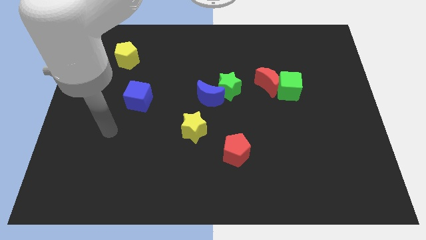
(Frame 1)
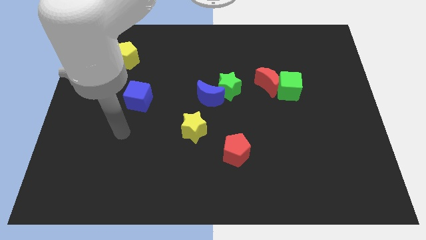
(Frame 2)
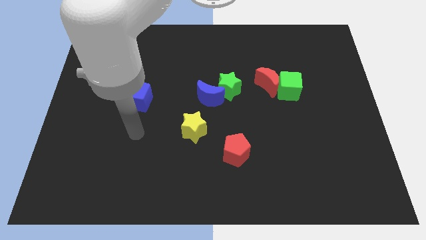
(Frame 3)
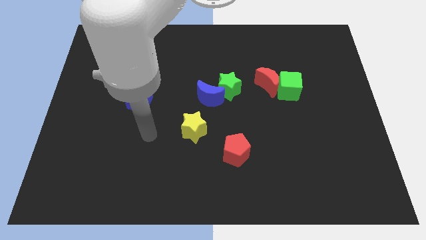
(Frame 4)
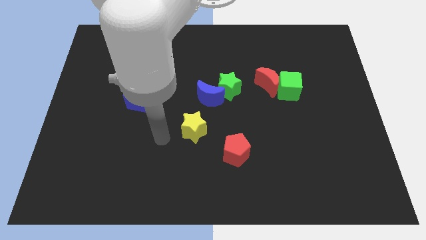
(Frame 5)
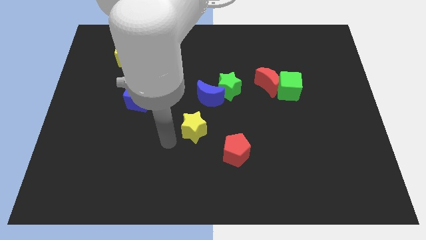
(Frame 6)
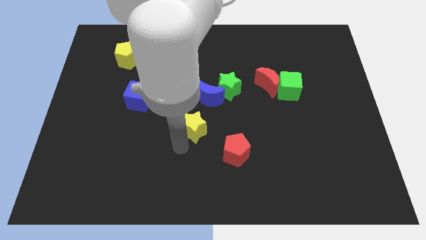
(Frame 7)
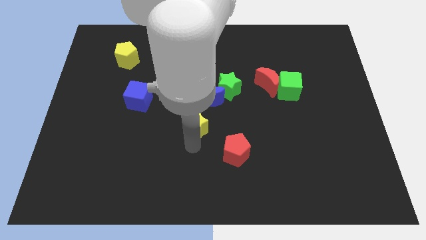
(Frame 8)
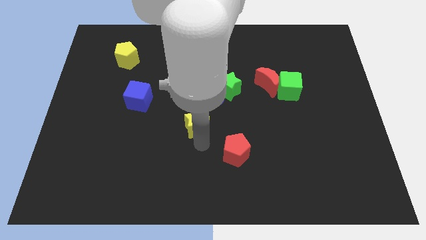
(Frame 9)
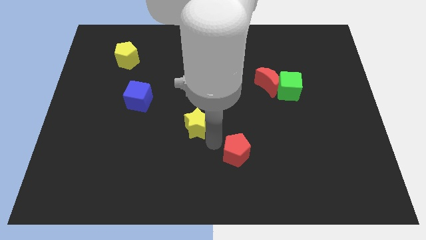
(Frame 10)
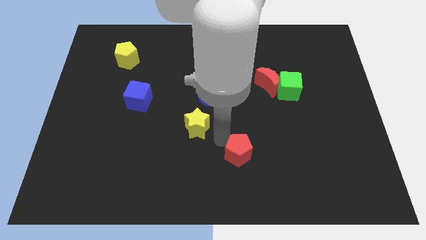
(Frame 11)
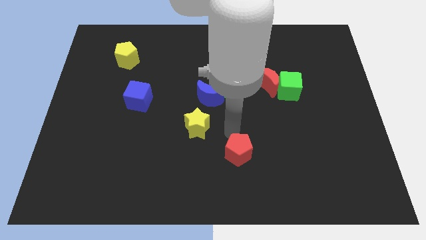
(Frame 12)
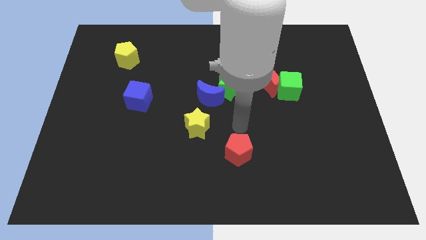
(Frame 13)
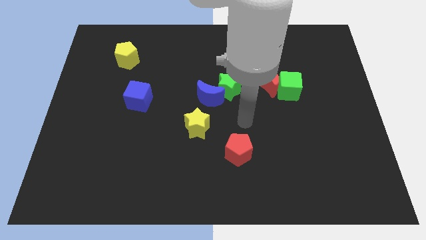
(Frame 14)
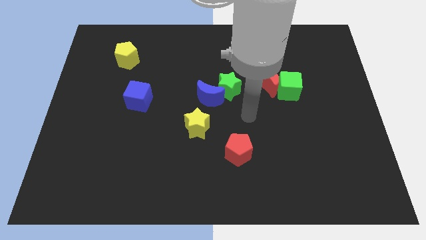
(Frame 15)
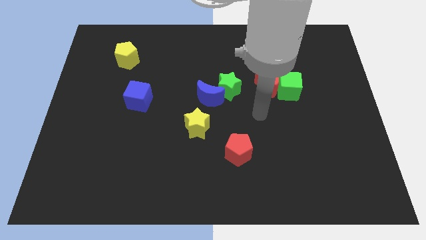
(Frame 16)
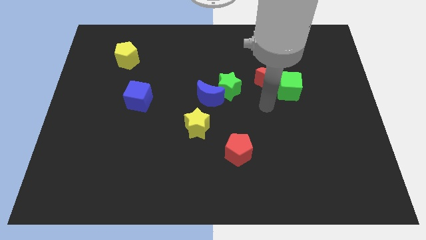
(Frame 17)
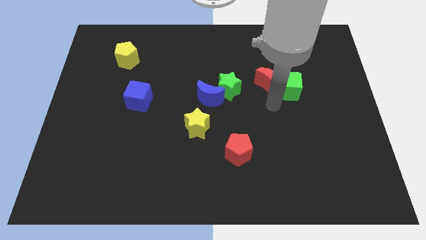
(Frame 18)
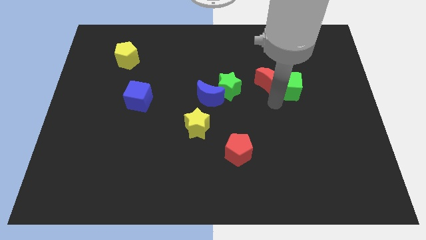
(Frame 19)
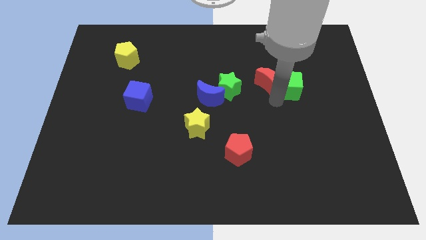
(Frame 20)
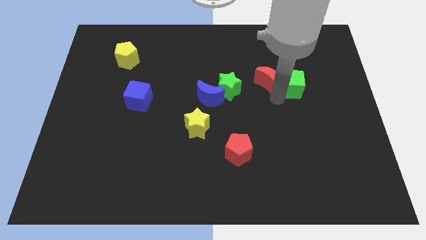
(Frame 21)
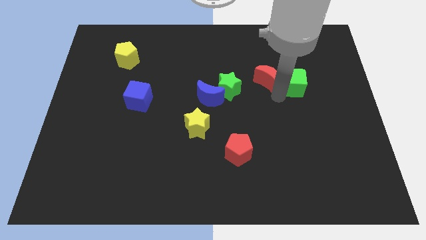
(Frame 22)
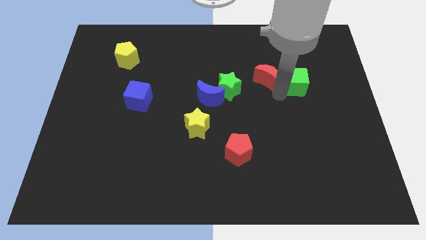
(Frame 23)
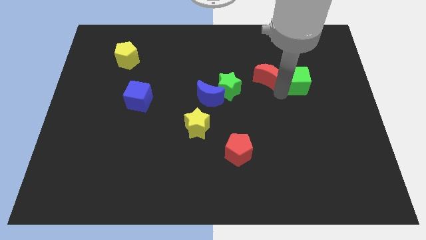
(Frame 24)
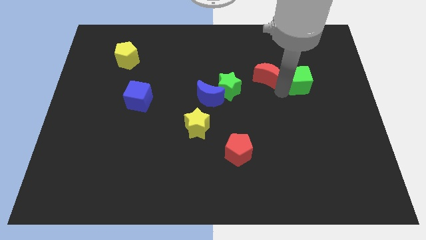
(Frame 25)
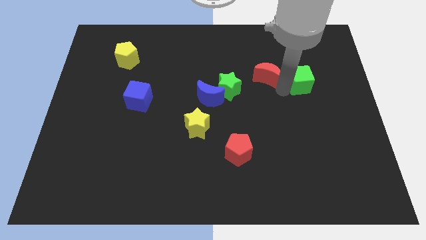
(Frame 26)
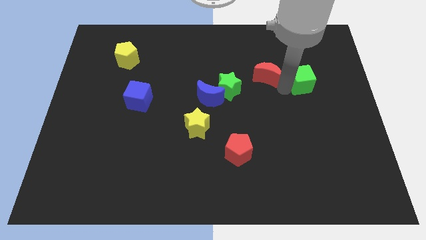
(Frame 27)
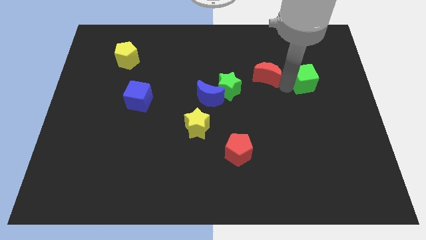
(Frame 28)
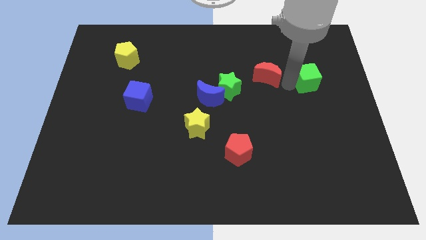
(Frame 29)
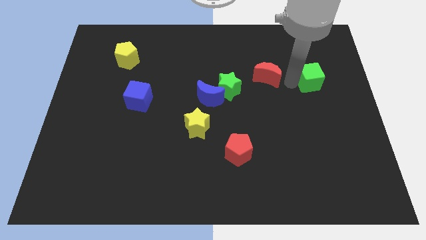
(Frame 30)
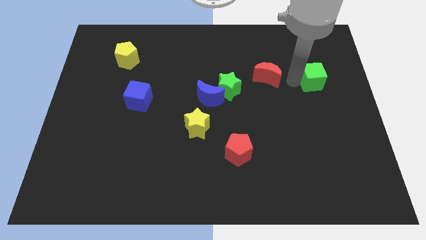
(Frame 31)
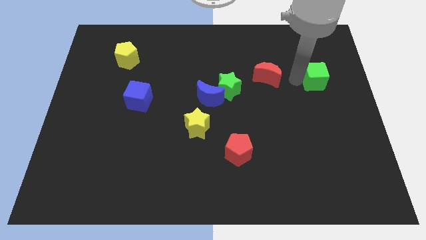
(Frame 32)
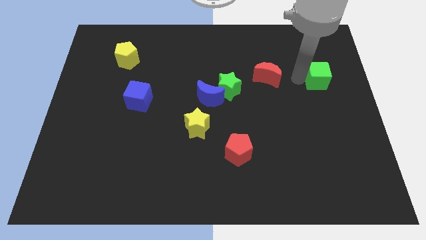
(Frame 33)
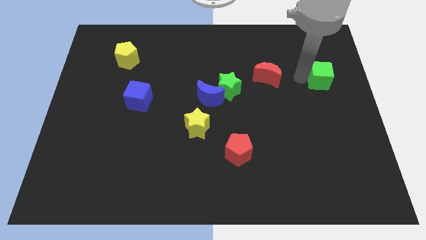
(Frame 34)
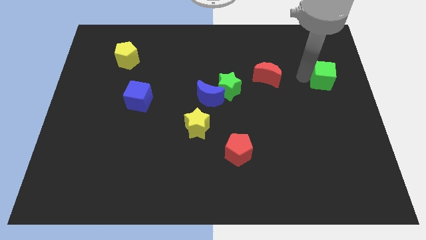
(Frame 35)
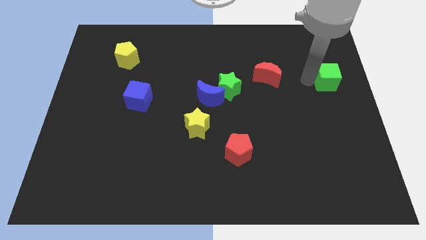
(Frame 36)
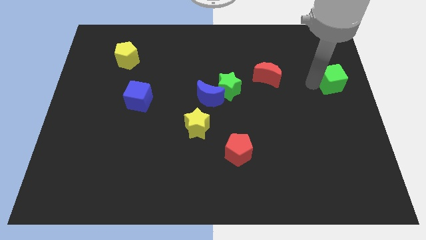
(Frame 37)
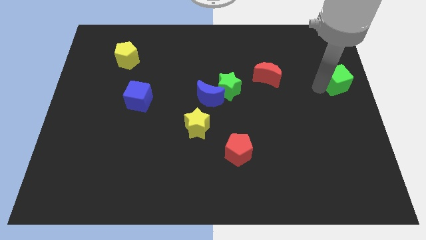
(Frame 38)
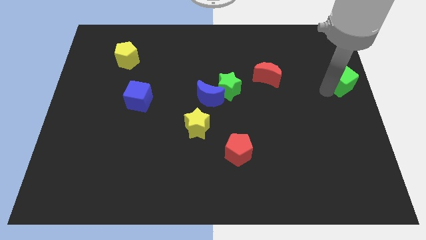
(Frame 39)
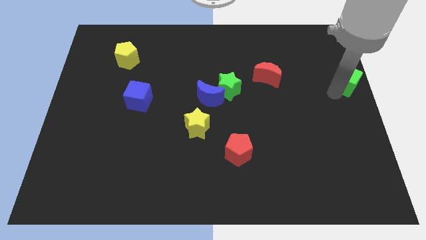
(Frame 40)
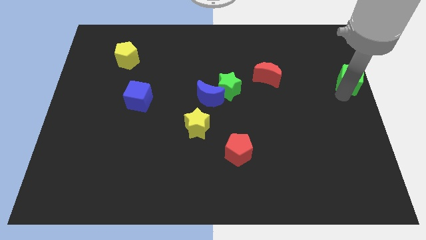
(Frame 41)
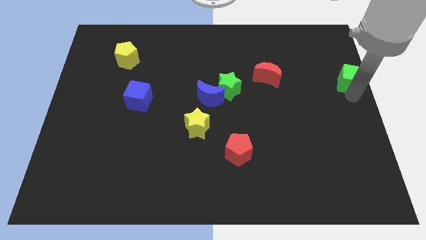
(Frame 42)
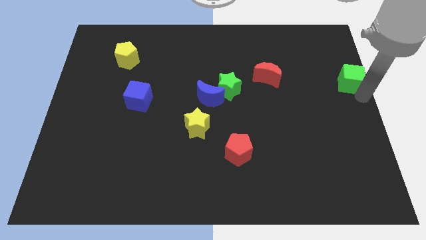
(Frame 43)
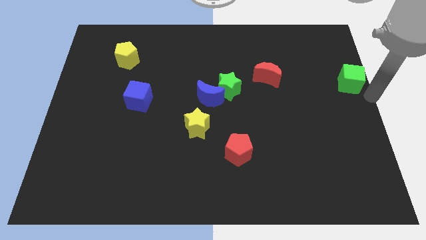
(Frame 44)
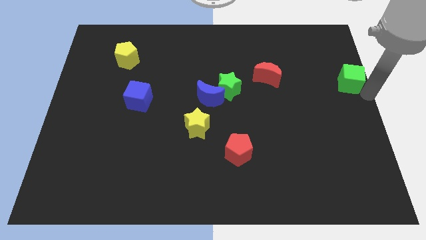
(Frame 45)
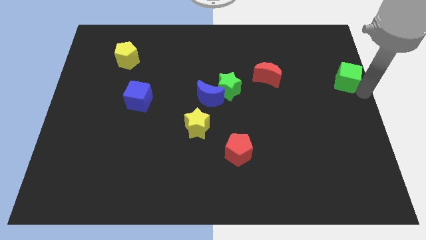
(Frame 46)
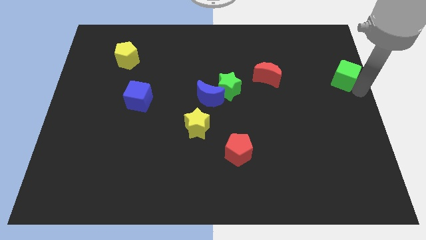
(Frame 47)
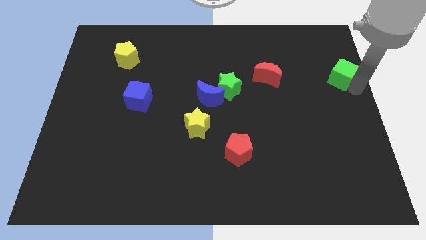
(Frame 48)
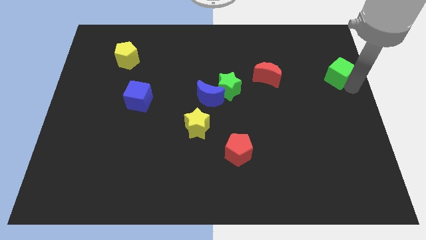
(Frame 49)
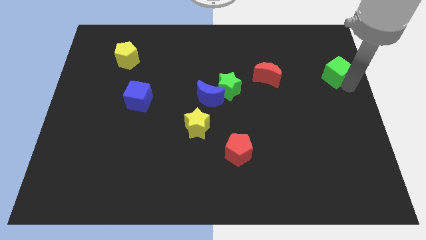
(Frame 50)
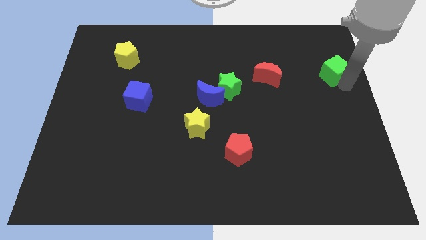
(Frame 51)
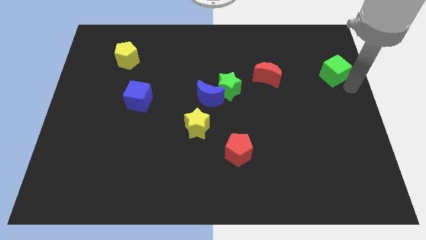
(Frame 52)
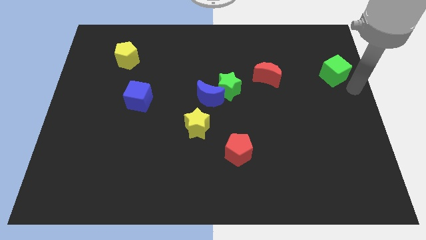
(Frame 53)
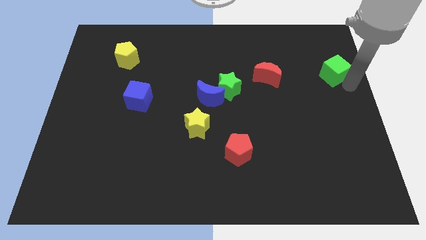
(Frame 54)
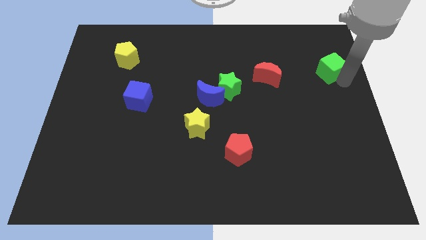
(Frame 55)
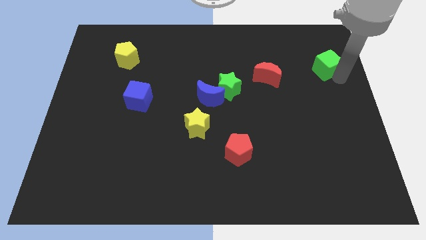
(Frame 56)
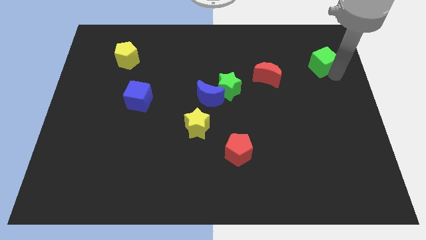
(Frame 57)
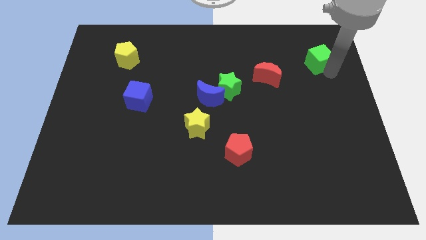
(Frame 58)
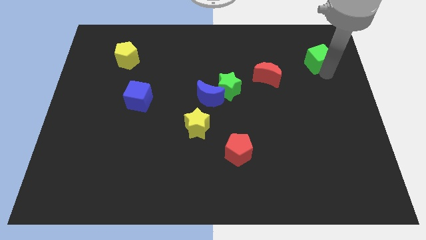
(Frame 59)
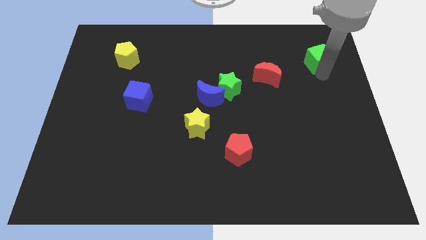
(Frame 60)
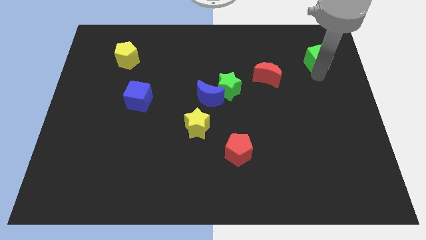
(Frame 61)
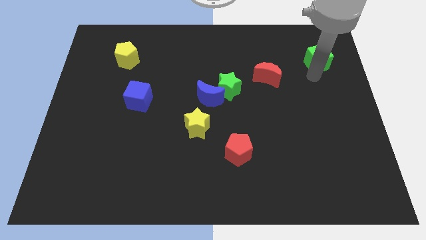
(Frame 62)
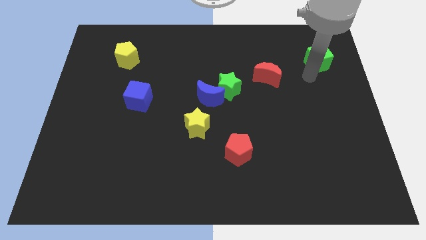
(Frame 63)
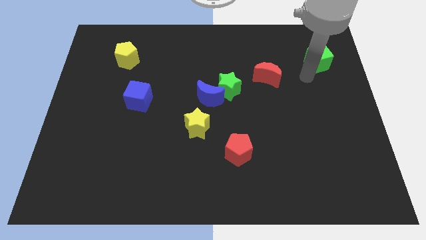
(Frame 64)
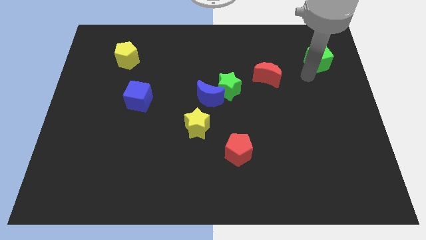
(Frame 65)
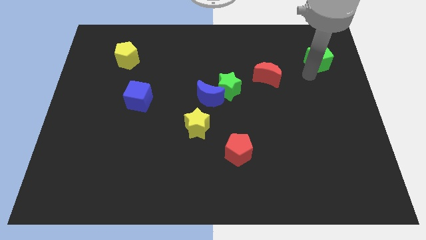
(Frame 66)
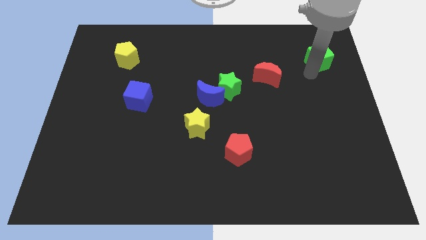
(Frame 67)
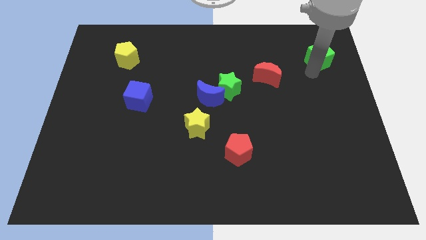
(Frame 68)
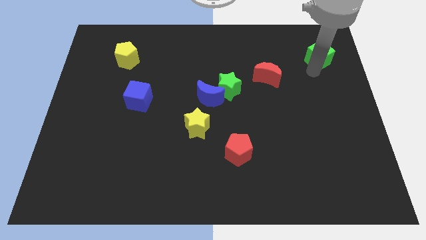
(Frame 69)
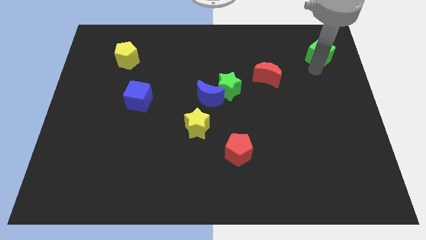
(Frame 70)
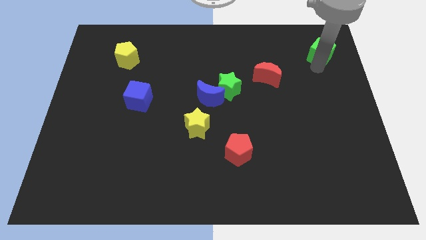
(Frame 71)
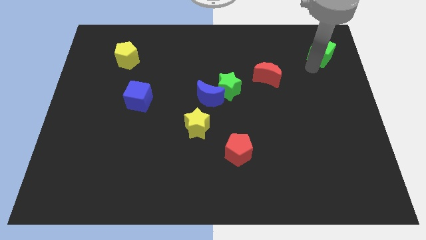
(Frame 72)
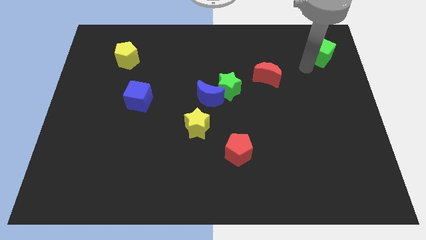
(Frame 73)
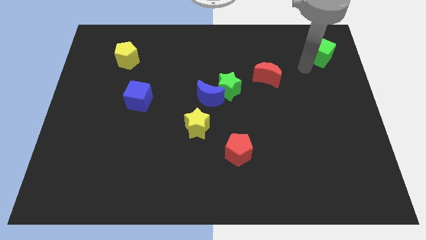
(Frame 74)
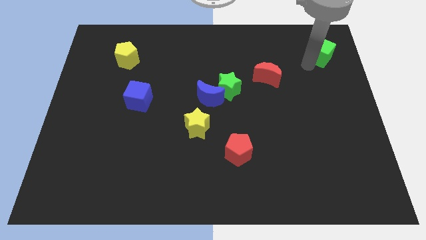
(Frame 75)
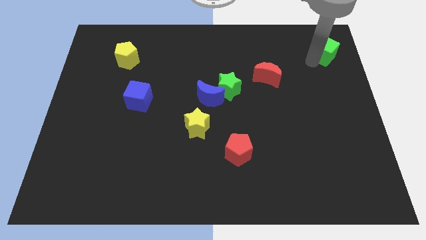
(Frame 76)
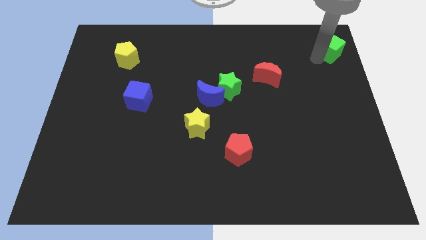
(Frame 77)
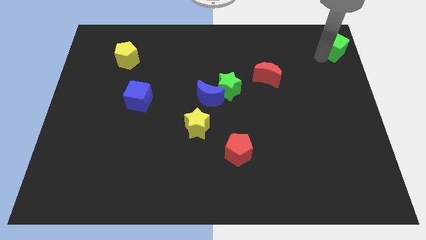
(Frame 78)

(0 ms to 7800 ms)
push the green cube to the upper right corner
